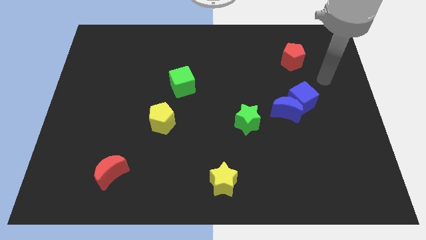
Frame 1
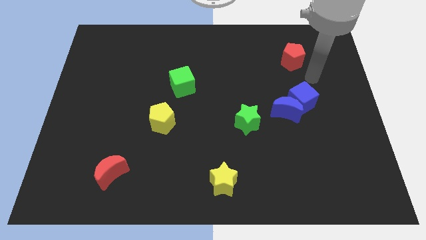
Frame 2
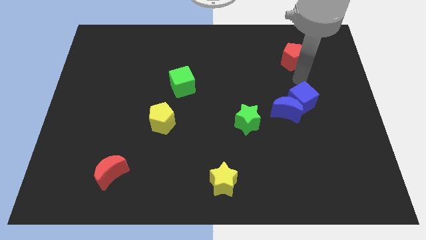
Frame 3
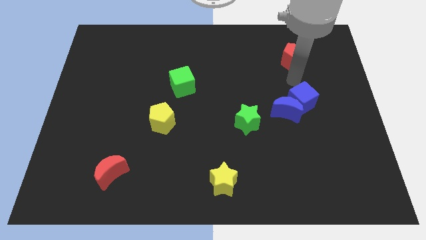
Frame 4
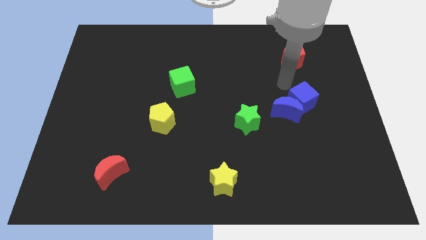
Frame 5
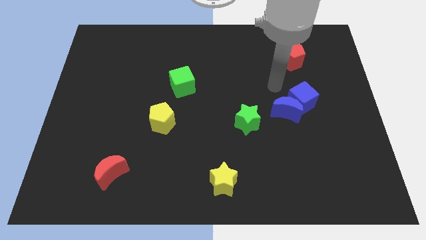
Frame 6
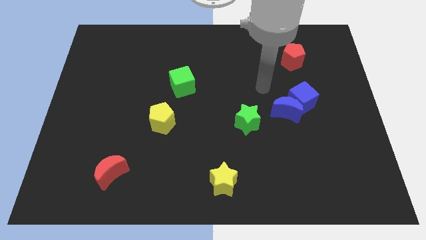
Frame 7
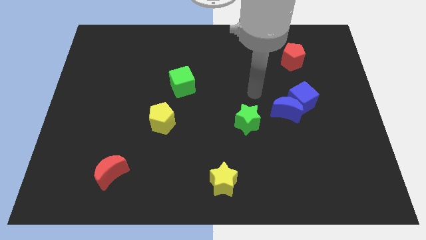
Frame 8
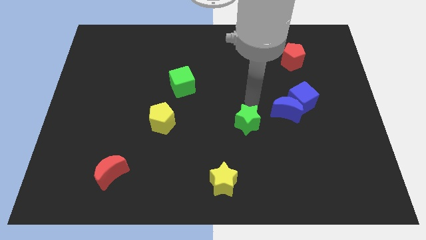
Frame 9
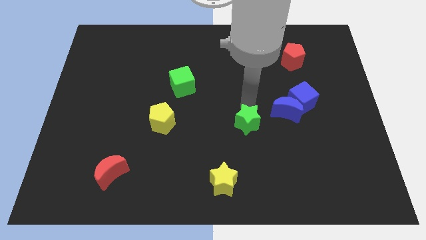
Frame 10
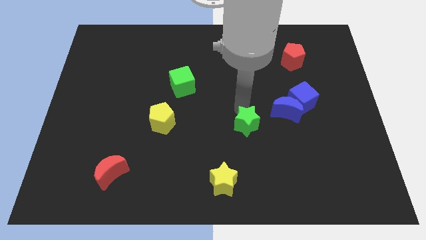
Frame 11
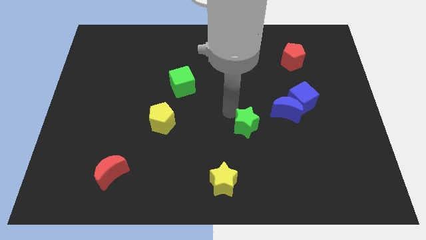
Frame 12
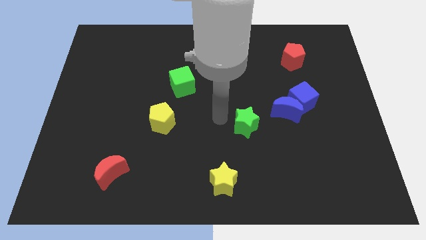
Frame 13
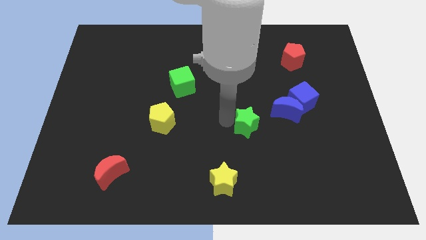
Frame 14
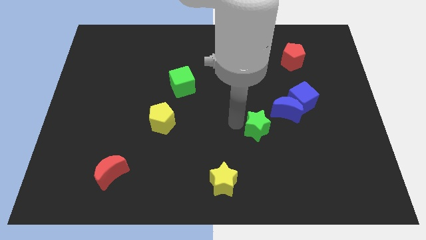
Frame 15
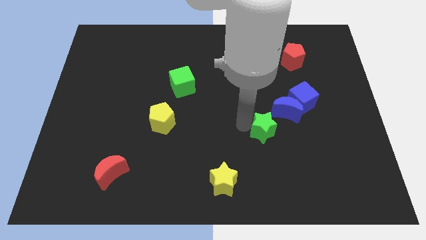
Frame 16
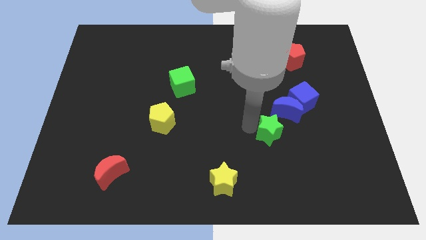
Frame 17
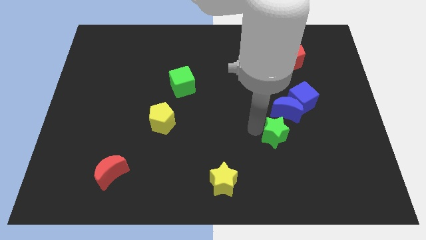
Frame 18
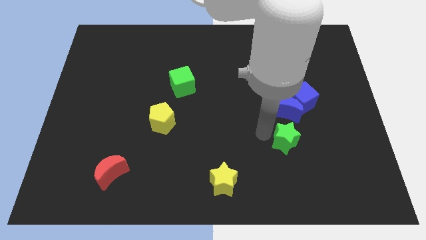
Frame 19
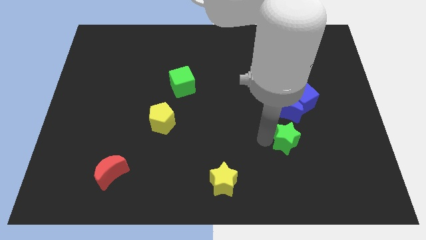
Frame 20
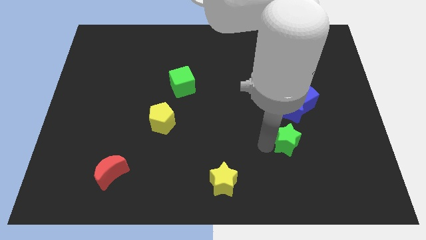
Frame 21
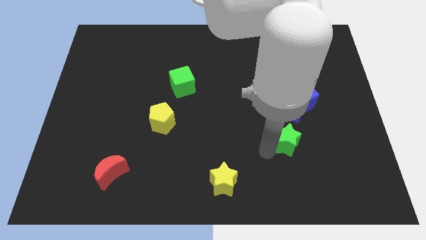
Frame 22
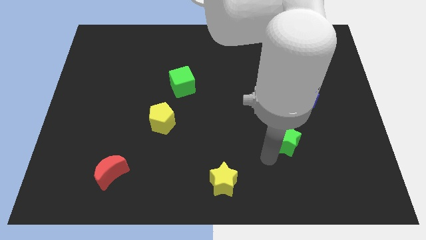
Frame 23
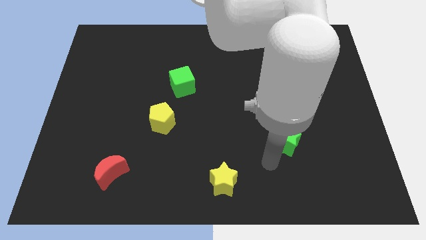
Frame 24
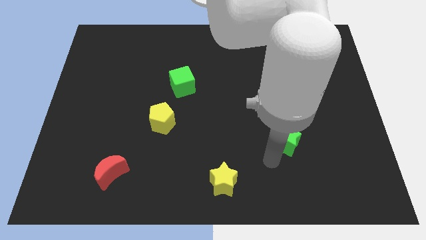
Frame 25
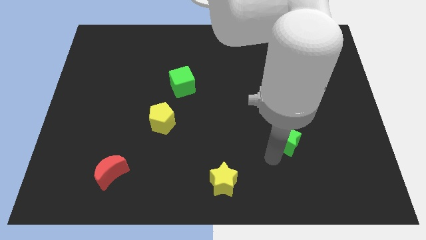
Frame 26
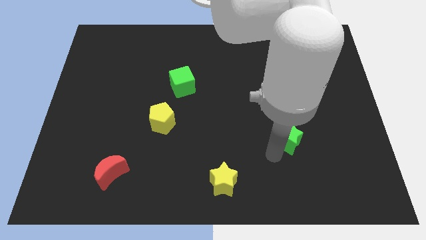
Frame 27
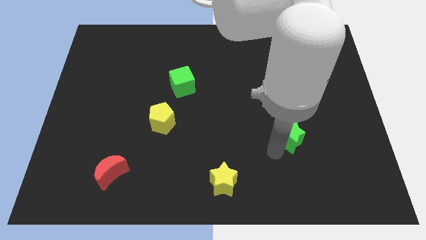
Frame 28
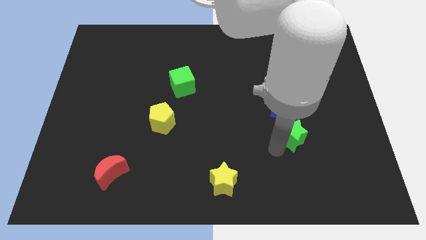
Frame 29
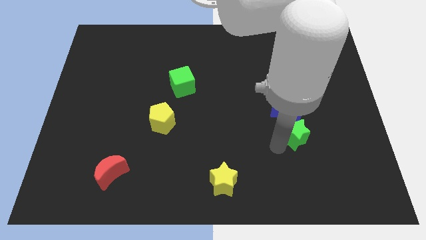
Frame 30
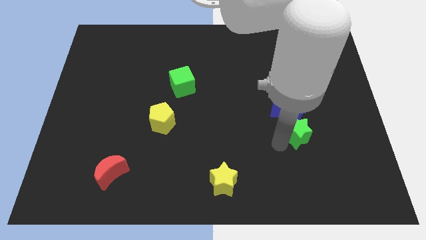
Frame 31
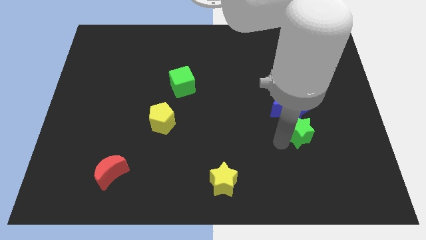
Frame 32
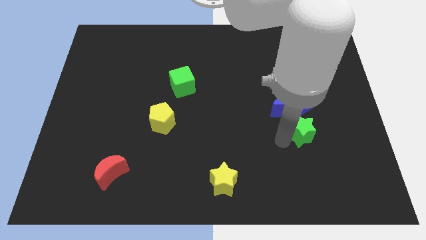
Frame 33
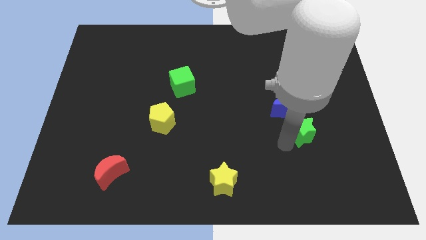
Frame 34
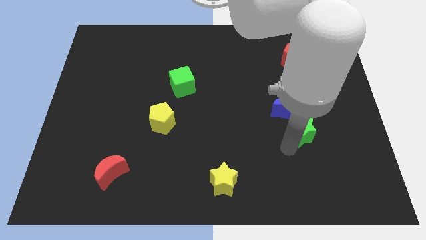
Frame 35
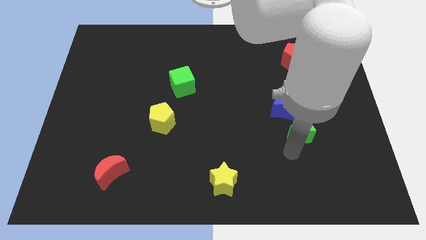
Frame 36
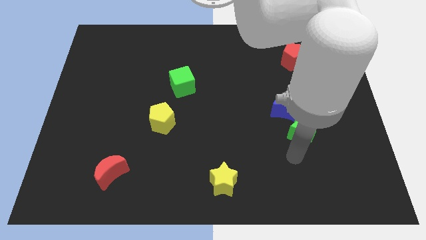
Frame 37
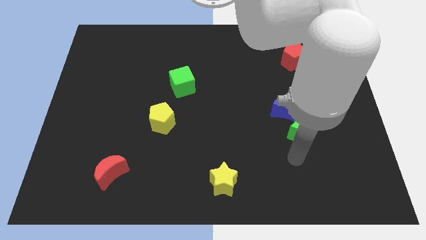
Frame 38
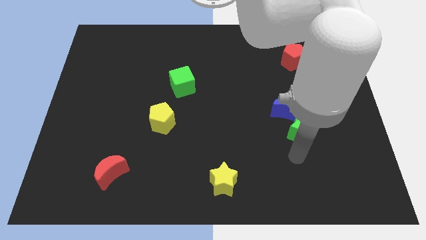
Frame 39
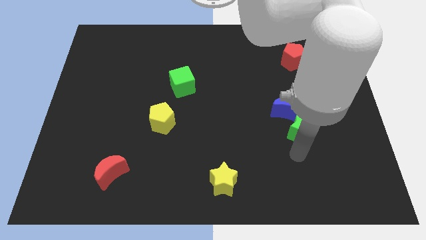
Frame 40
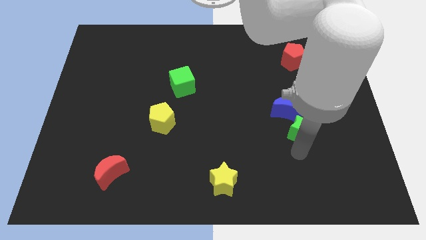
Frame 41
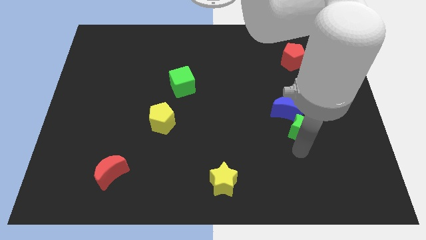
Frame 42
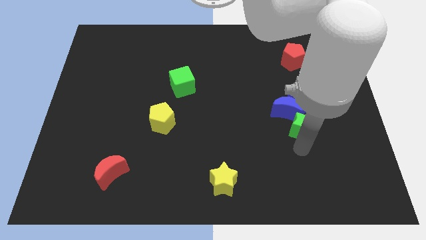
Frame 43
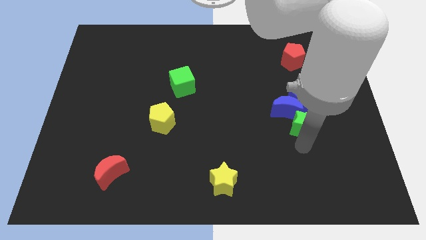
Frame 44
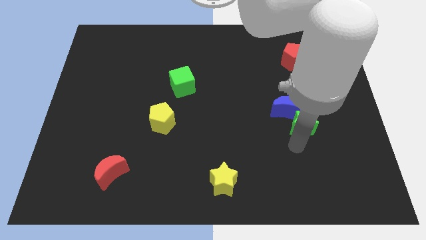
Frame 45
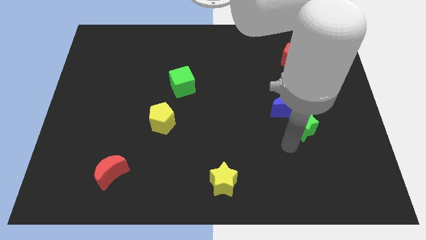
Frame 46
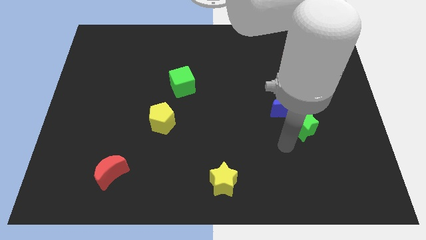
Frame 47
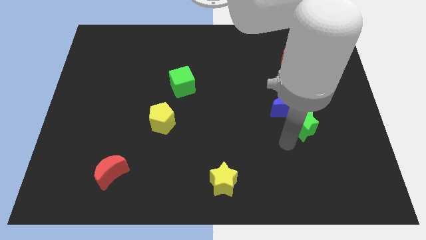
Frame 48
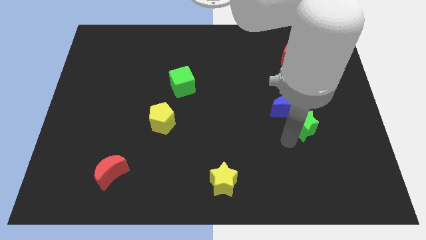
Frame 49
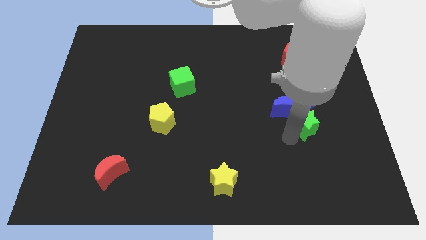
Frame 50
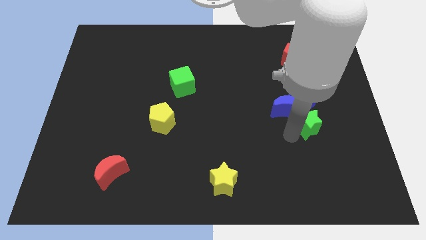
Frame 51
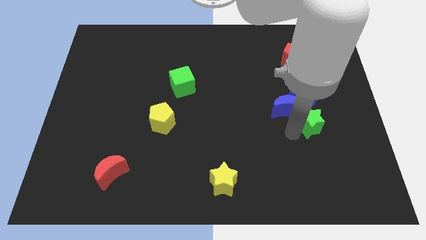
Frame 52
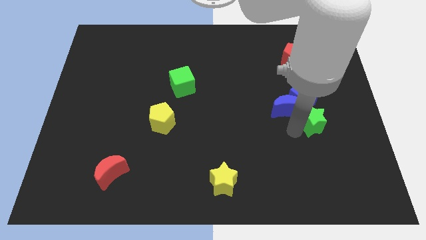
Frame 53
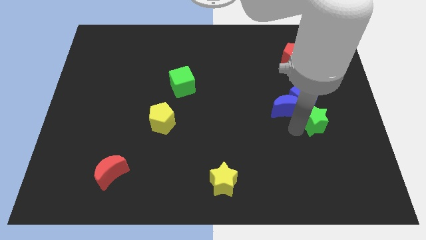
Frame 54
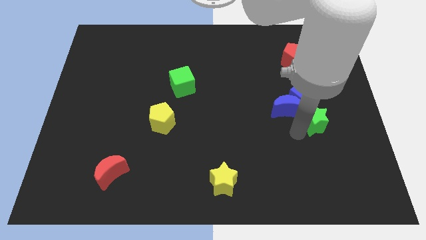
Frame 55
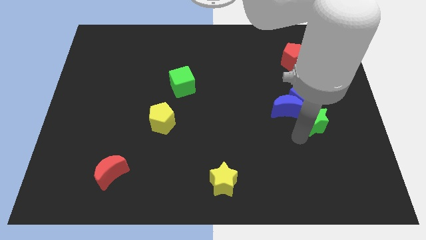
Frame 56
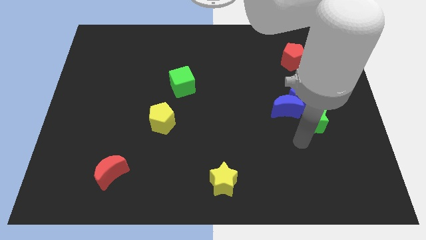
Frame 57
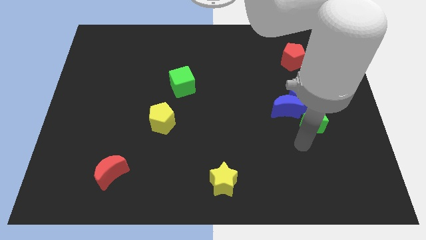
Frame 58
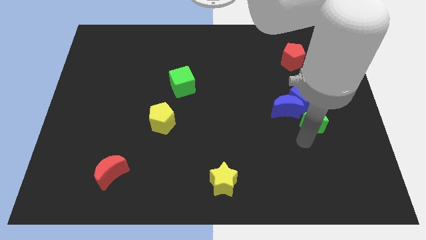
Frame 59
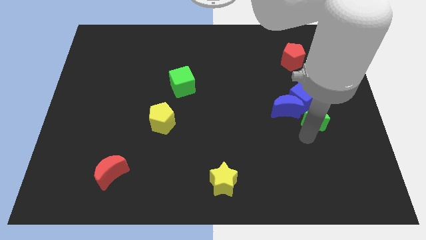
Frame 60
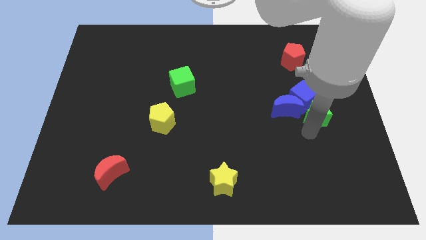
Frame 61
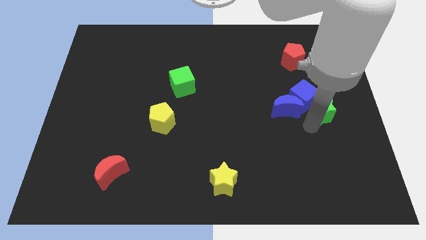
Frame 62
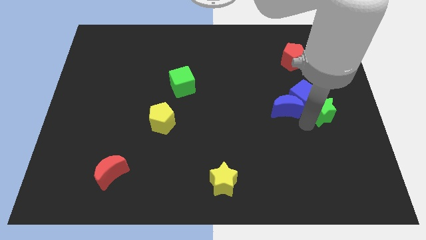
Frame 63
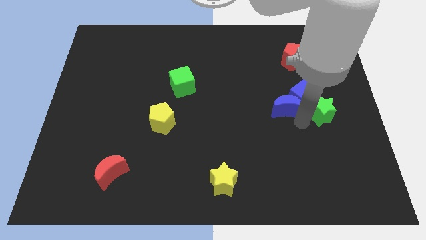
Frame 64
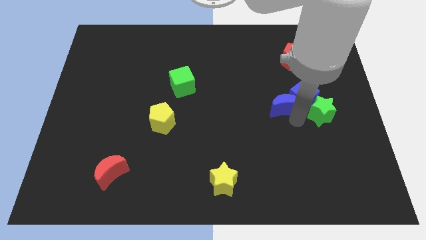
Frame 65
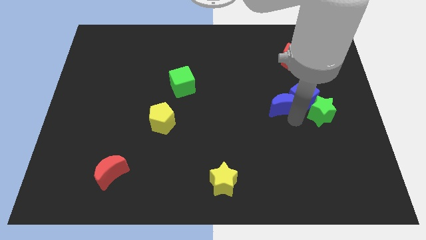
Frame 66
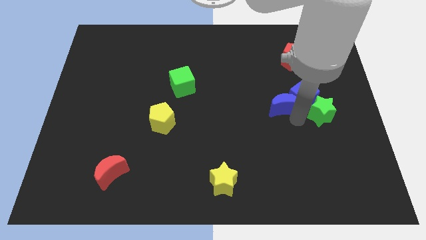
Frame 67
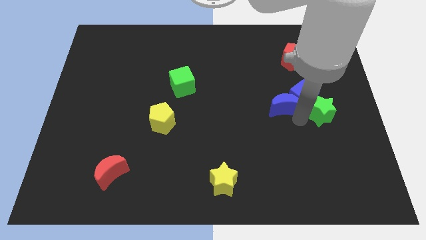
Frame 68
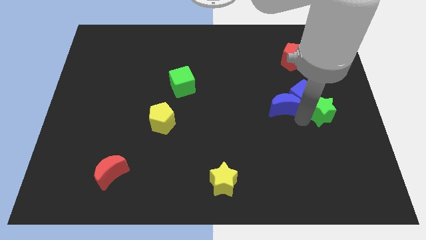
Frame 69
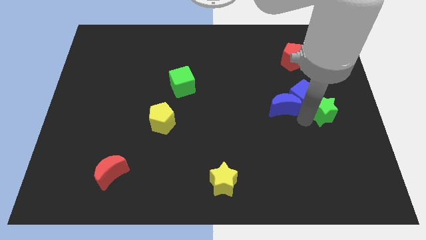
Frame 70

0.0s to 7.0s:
push the green star to the right side
